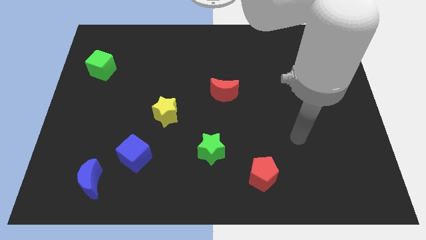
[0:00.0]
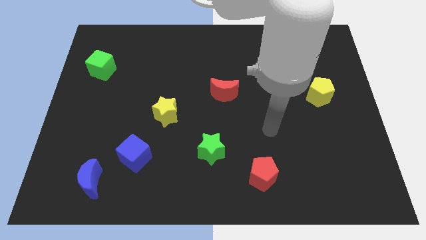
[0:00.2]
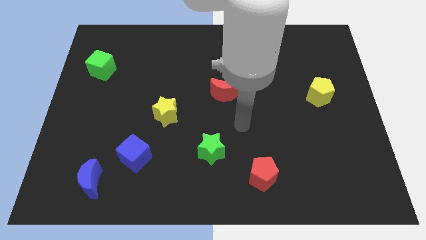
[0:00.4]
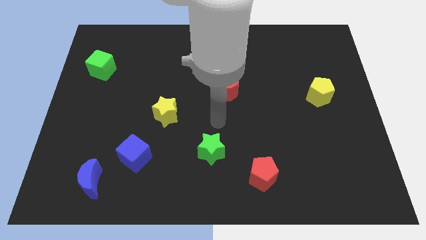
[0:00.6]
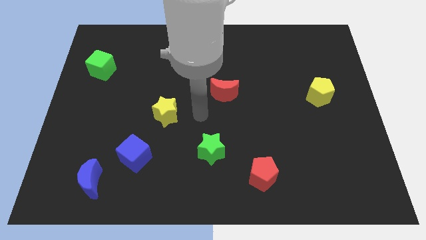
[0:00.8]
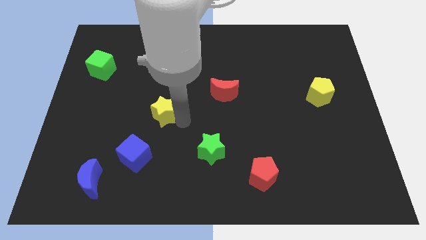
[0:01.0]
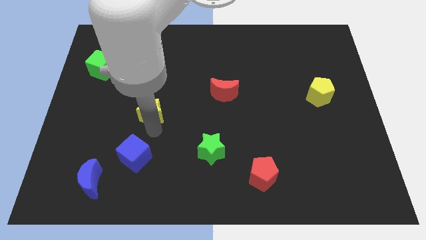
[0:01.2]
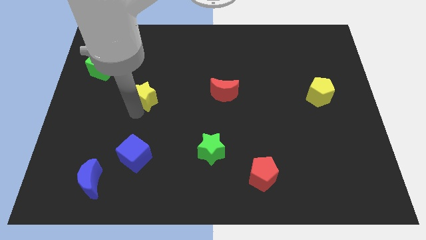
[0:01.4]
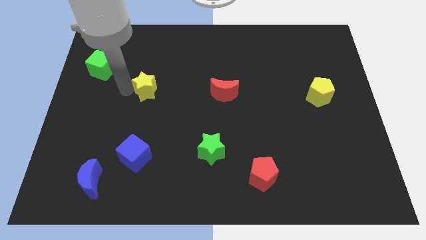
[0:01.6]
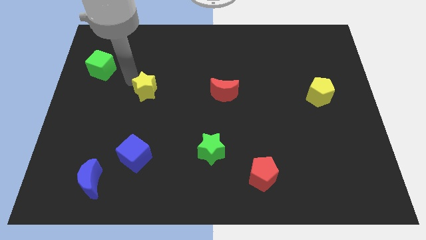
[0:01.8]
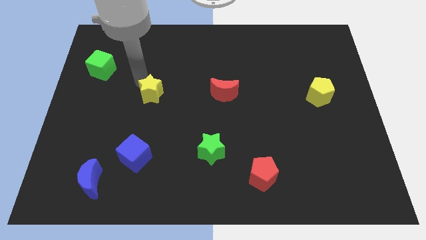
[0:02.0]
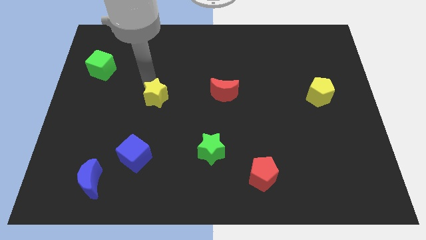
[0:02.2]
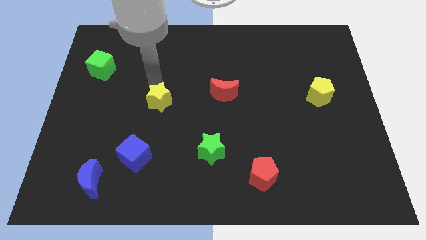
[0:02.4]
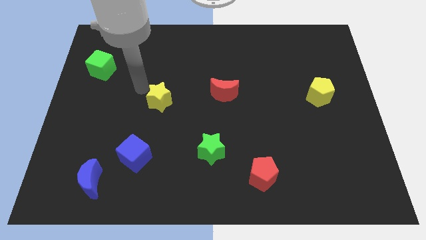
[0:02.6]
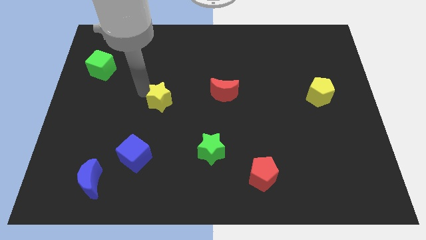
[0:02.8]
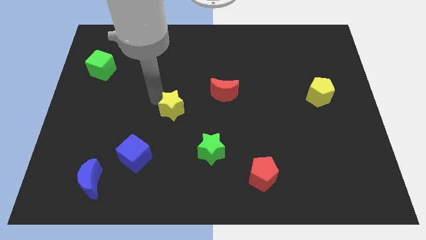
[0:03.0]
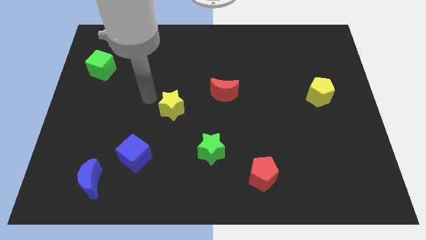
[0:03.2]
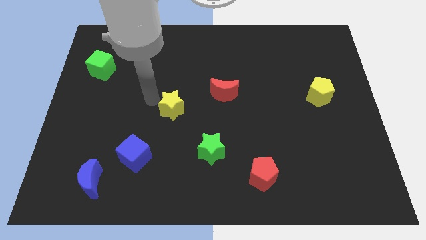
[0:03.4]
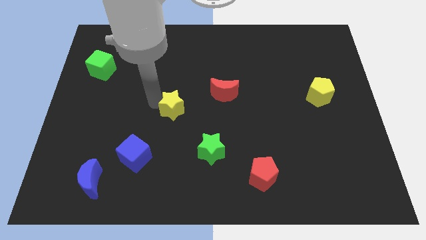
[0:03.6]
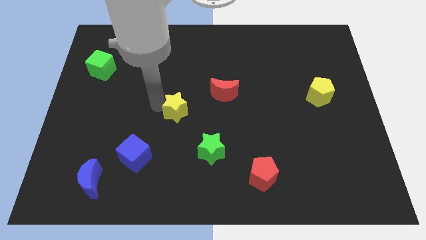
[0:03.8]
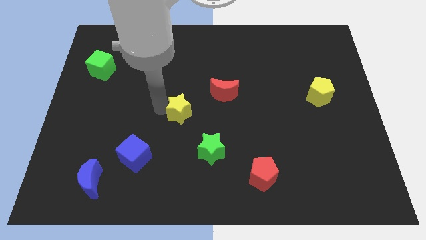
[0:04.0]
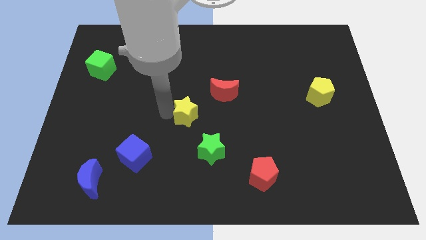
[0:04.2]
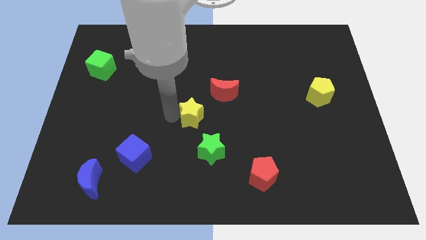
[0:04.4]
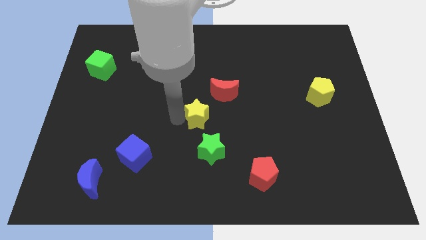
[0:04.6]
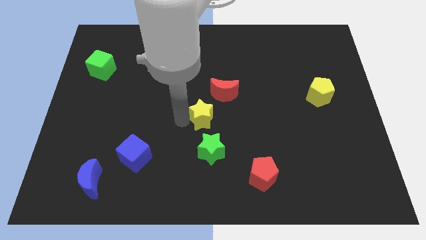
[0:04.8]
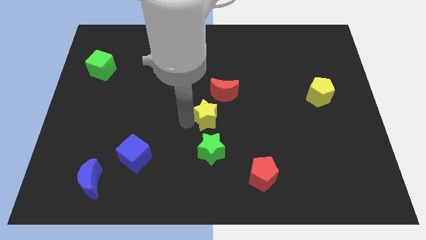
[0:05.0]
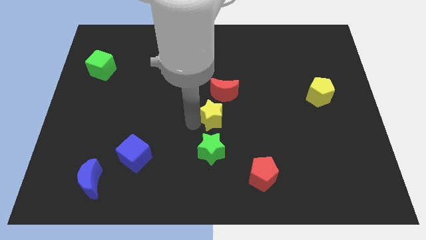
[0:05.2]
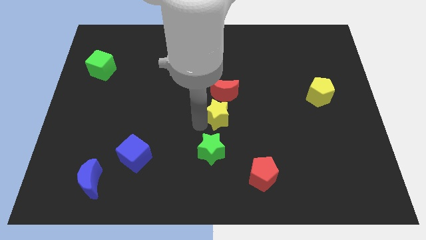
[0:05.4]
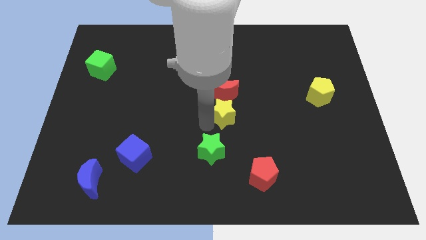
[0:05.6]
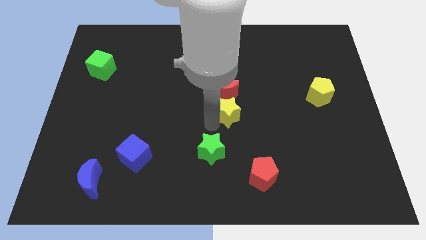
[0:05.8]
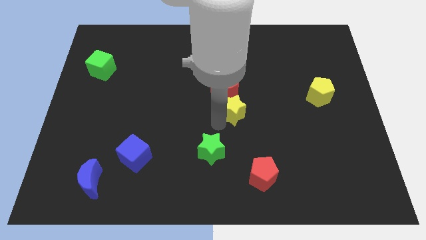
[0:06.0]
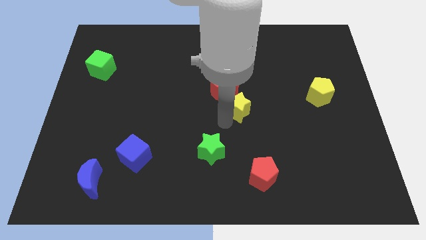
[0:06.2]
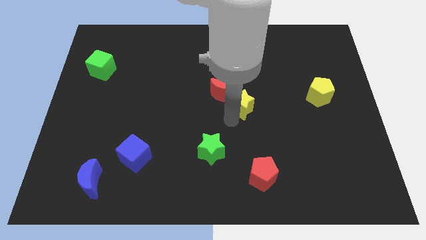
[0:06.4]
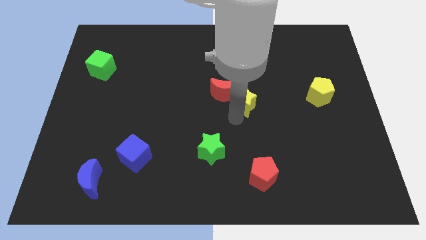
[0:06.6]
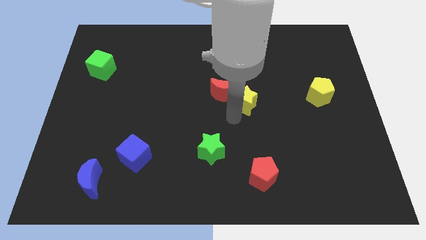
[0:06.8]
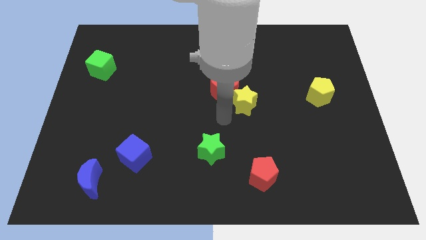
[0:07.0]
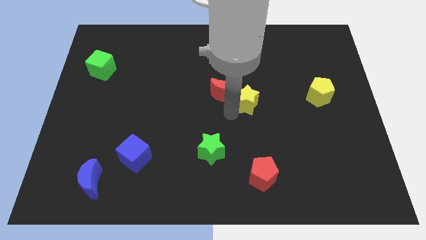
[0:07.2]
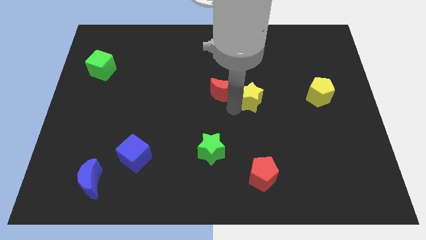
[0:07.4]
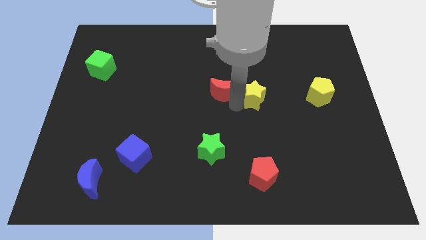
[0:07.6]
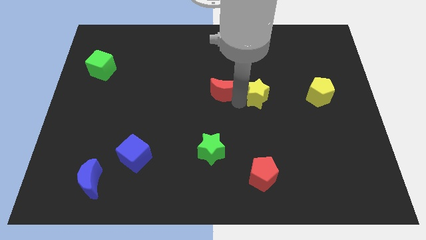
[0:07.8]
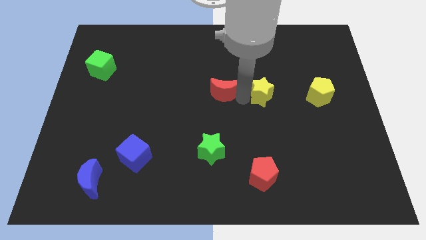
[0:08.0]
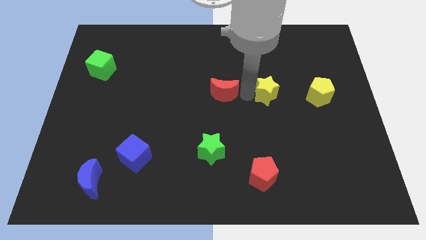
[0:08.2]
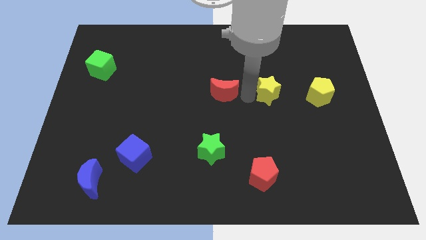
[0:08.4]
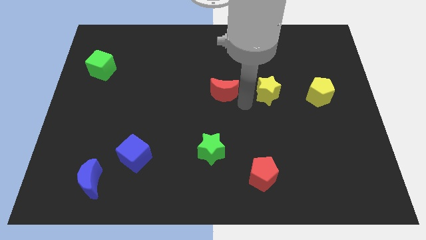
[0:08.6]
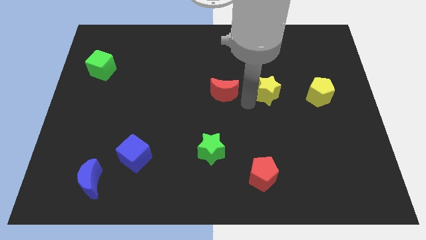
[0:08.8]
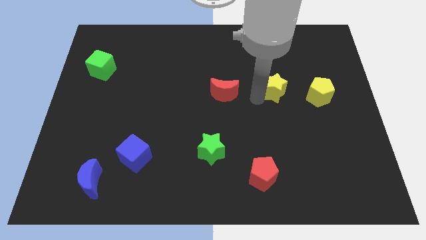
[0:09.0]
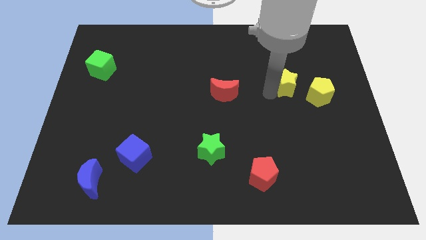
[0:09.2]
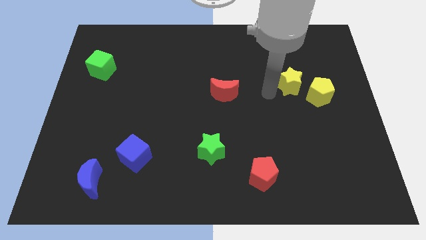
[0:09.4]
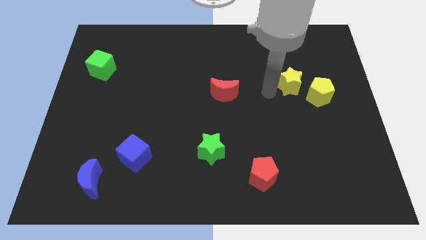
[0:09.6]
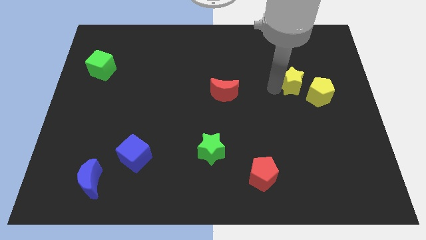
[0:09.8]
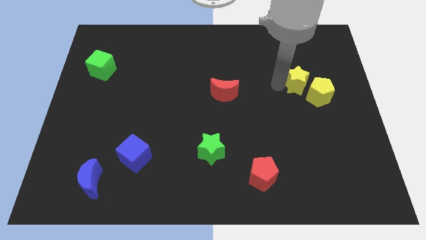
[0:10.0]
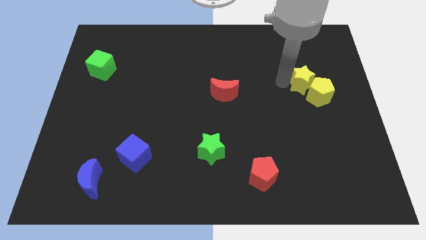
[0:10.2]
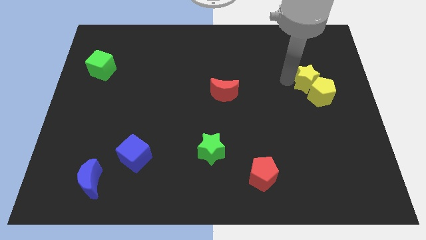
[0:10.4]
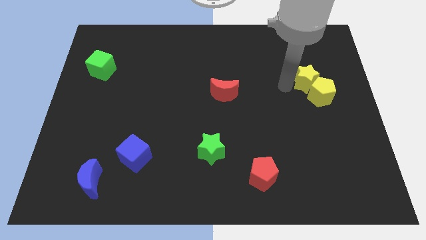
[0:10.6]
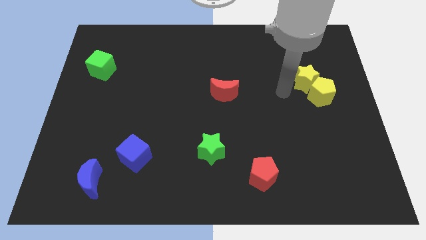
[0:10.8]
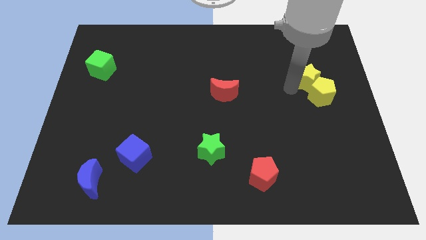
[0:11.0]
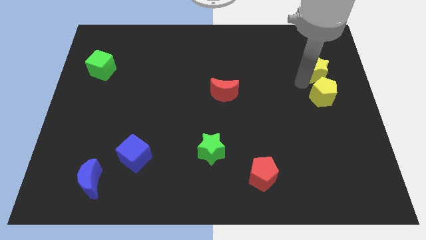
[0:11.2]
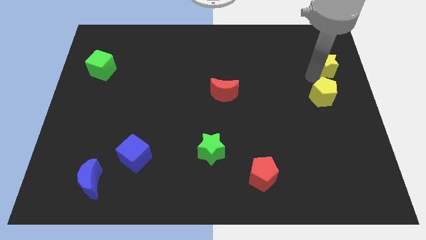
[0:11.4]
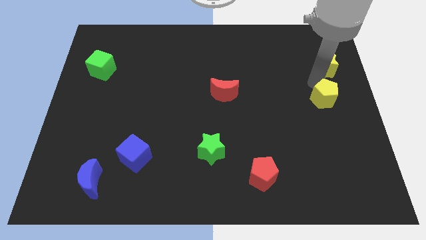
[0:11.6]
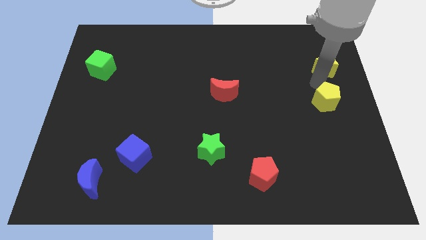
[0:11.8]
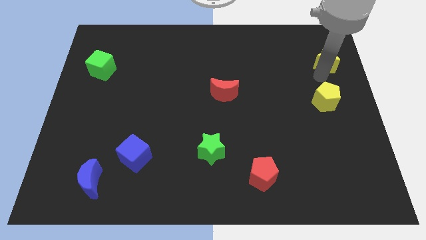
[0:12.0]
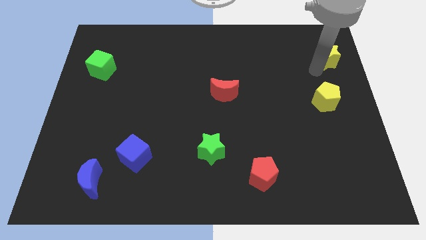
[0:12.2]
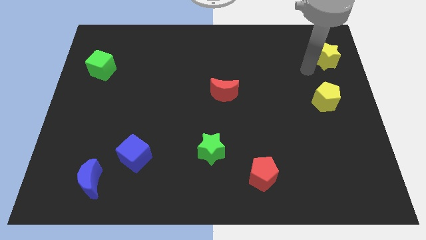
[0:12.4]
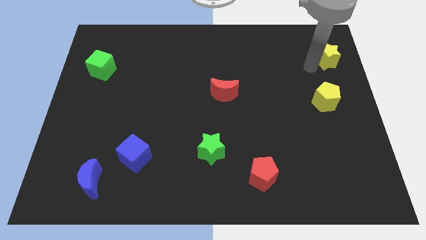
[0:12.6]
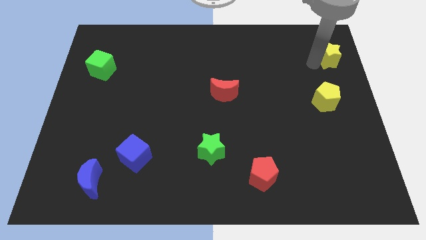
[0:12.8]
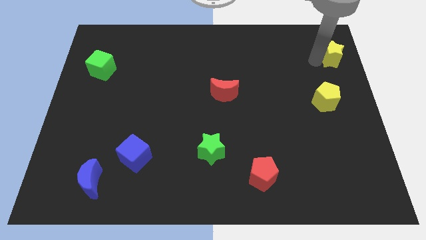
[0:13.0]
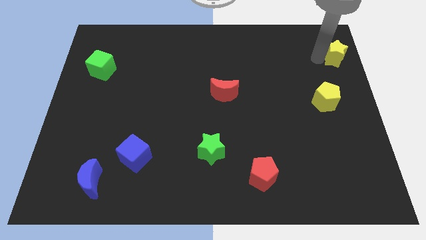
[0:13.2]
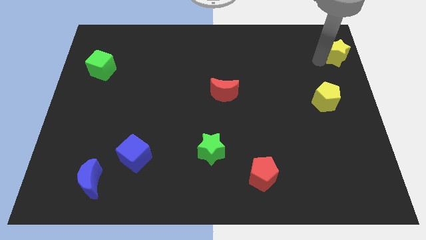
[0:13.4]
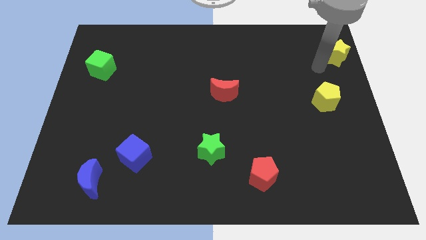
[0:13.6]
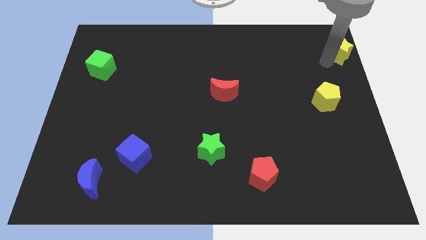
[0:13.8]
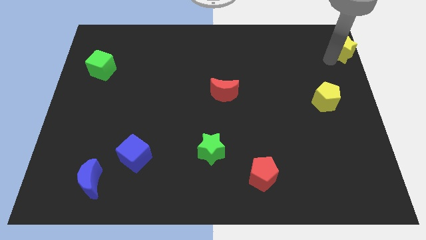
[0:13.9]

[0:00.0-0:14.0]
put the yellow star to the top right corner
